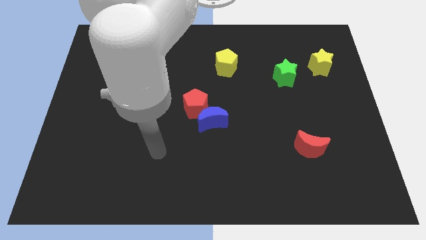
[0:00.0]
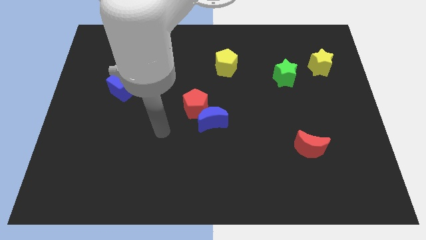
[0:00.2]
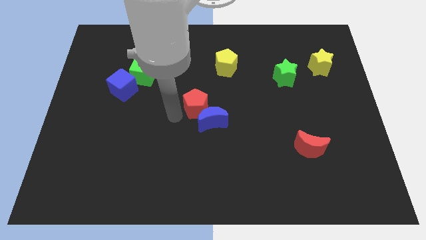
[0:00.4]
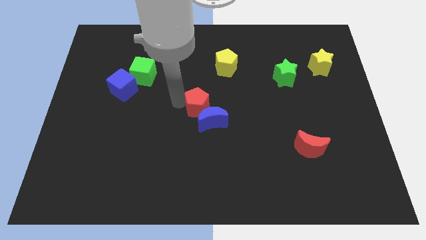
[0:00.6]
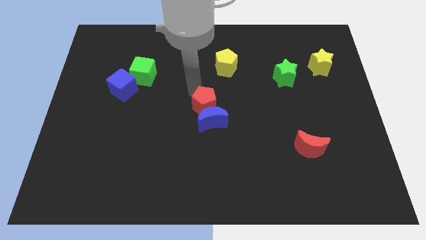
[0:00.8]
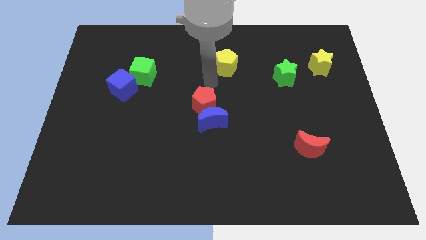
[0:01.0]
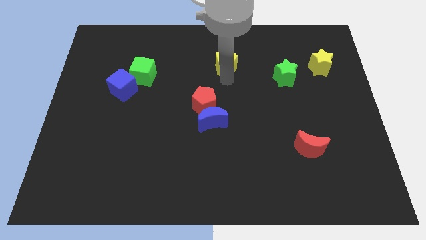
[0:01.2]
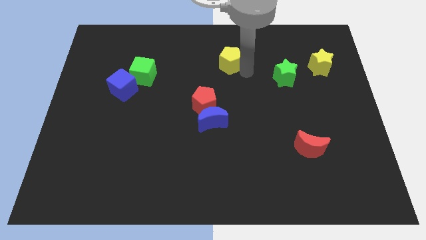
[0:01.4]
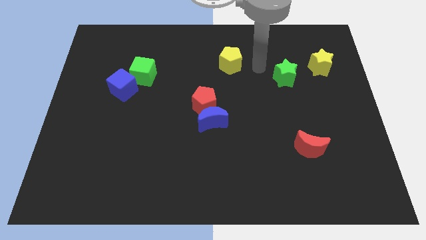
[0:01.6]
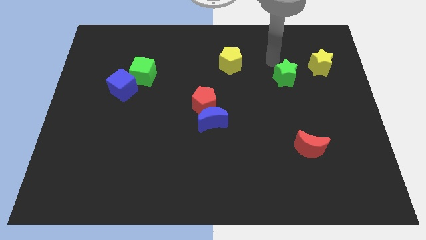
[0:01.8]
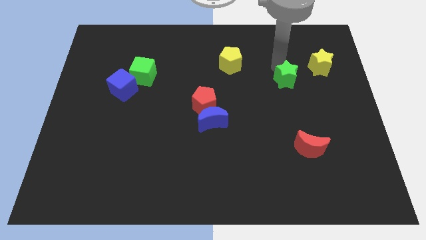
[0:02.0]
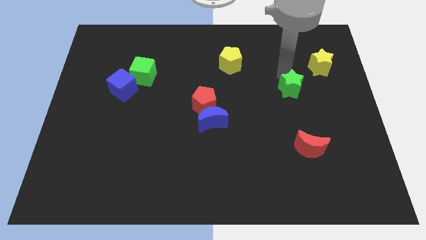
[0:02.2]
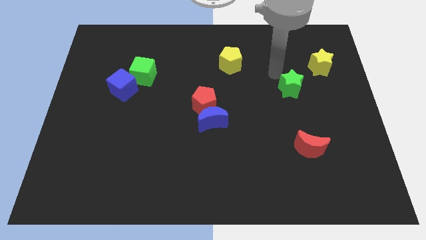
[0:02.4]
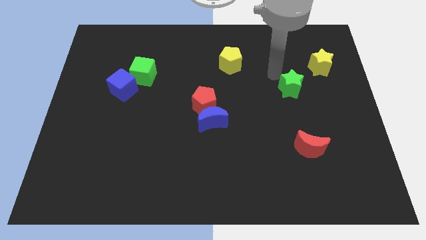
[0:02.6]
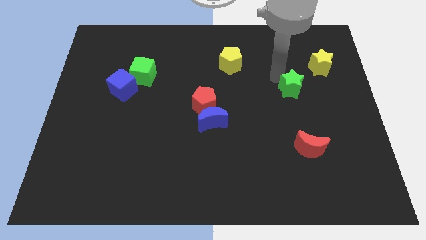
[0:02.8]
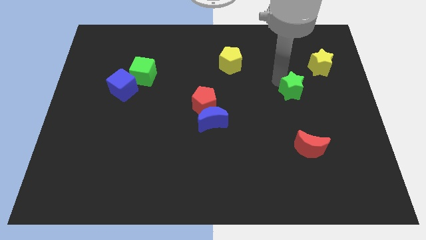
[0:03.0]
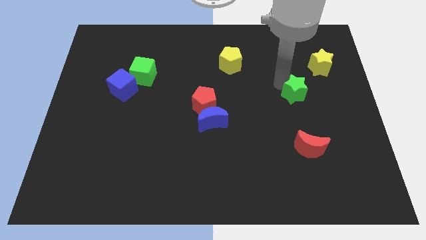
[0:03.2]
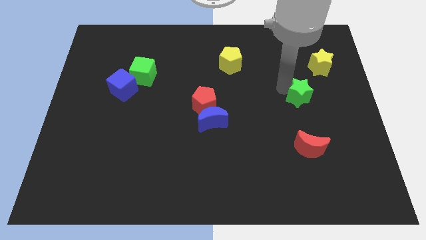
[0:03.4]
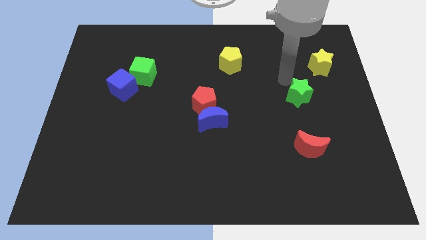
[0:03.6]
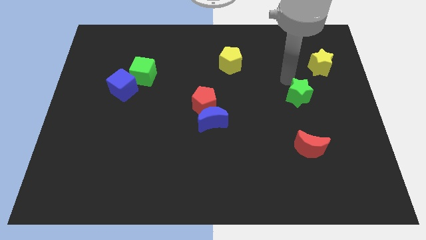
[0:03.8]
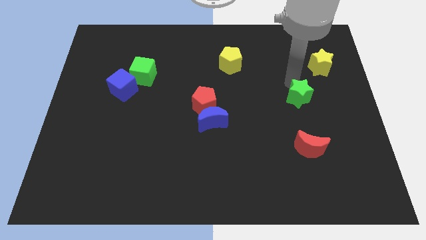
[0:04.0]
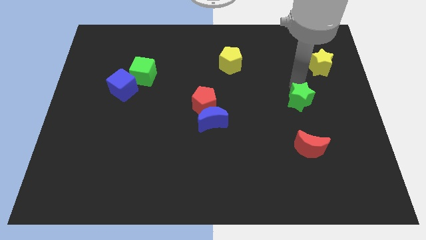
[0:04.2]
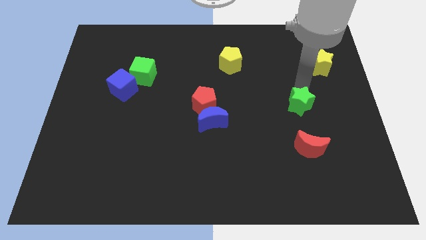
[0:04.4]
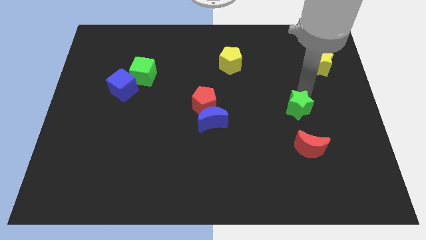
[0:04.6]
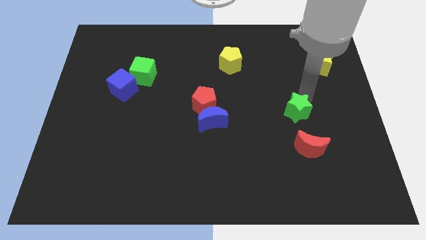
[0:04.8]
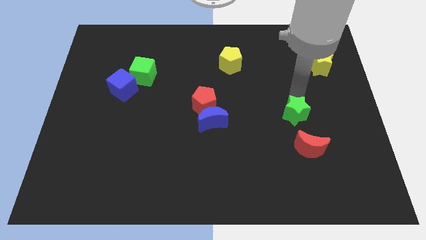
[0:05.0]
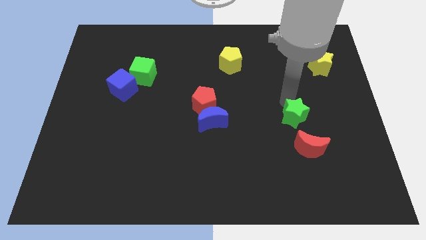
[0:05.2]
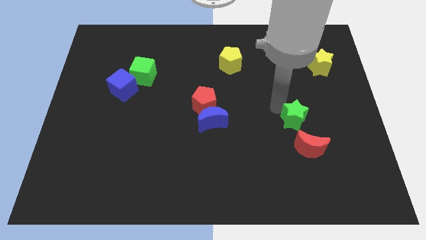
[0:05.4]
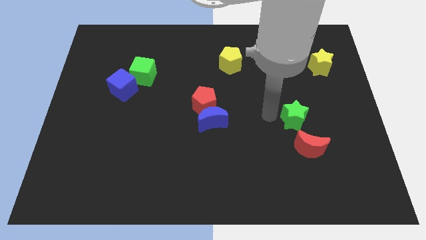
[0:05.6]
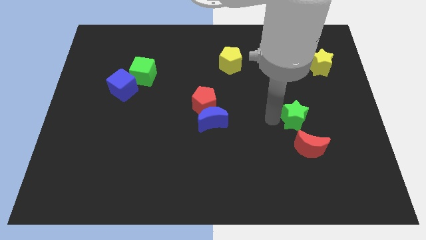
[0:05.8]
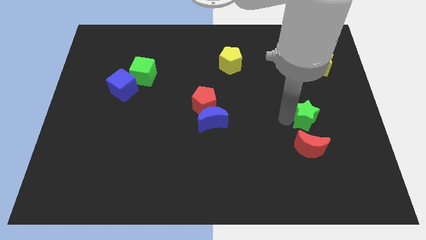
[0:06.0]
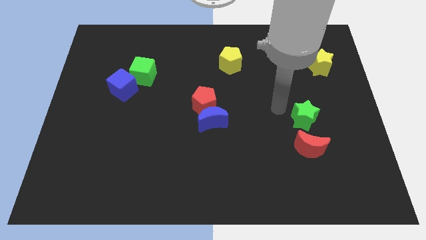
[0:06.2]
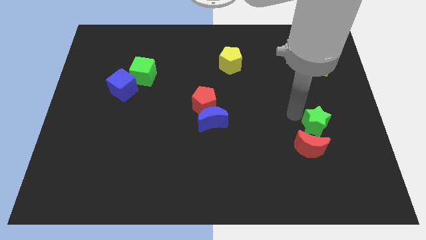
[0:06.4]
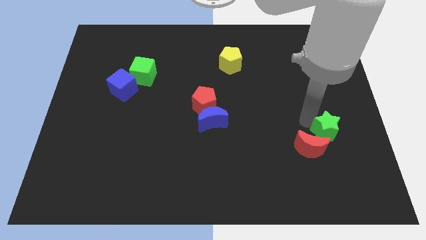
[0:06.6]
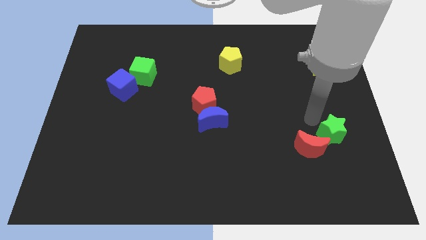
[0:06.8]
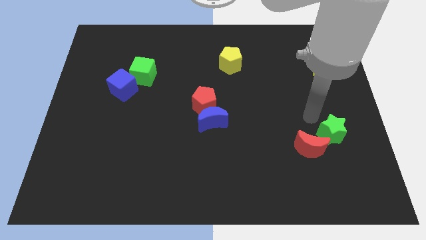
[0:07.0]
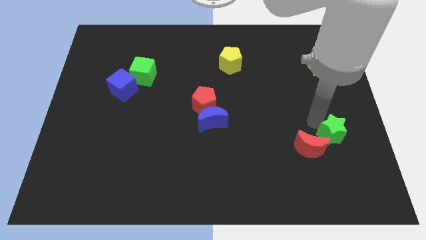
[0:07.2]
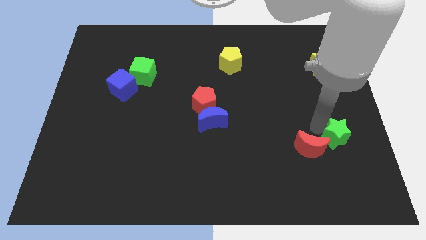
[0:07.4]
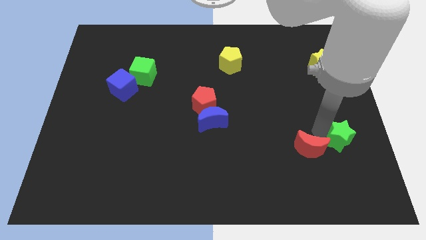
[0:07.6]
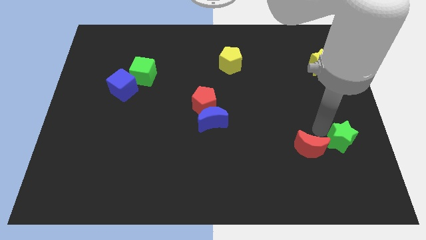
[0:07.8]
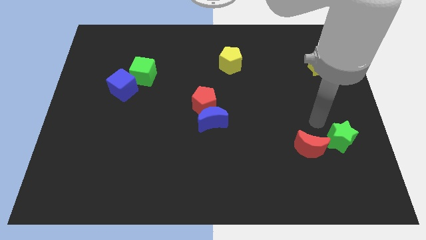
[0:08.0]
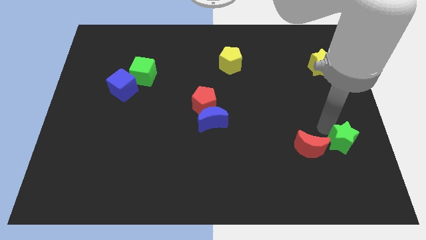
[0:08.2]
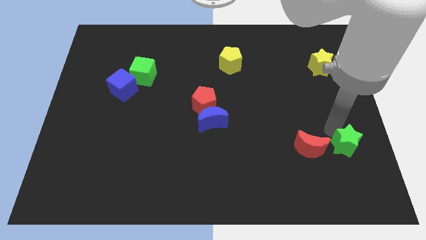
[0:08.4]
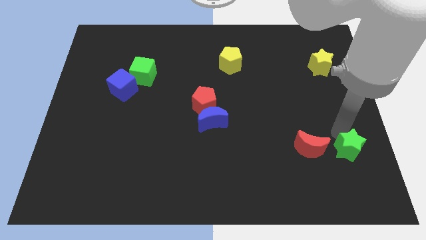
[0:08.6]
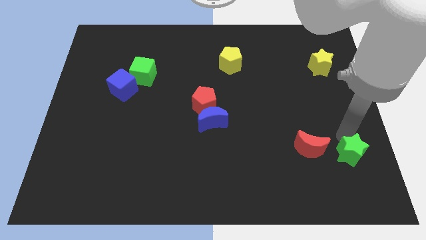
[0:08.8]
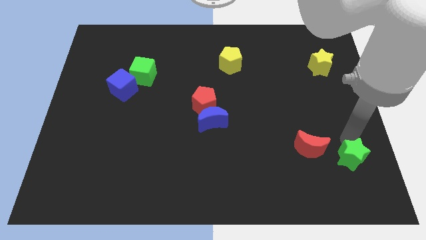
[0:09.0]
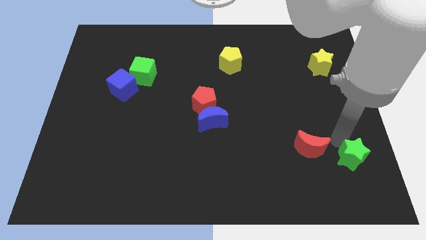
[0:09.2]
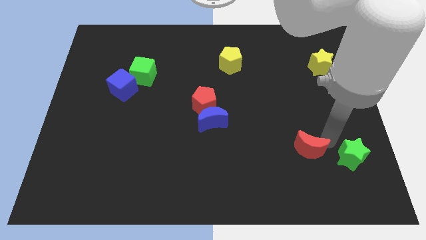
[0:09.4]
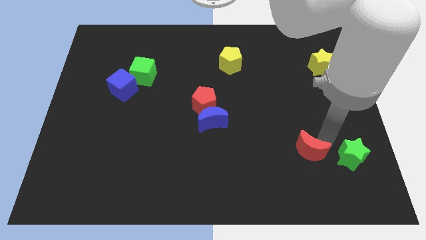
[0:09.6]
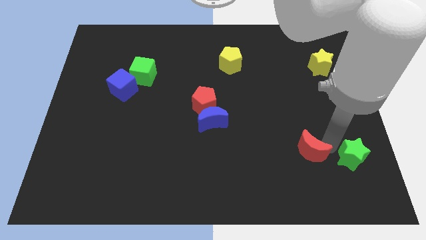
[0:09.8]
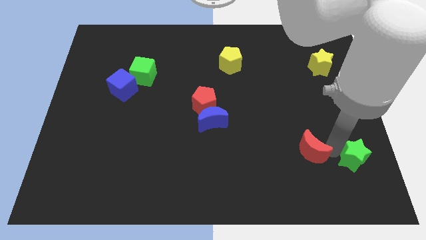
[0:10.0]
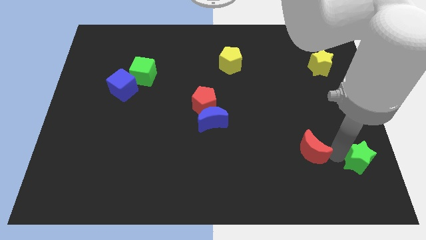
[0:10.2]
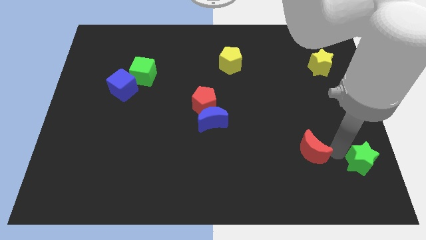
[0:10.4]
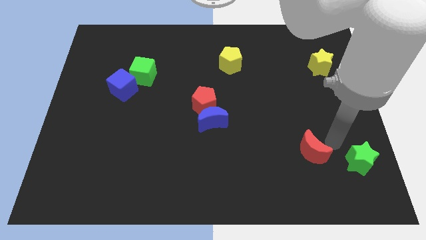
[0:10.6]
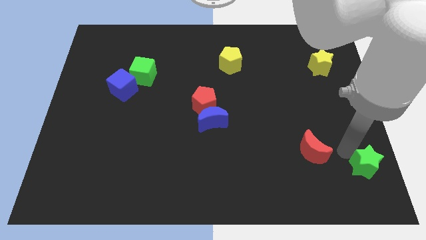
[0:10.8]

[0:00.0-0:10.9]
slide the green star to the lower right corner

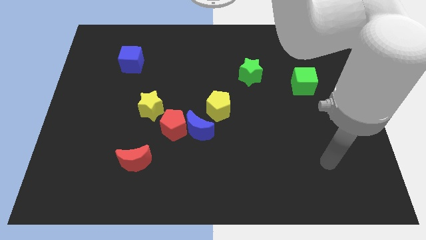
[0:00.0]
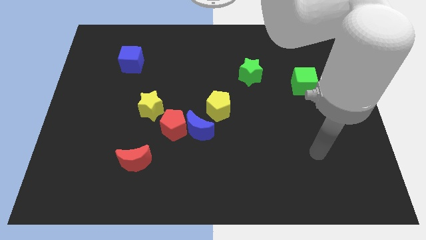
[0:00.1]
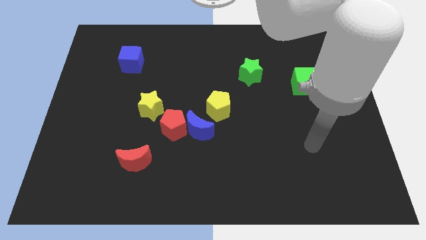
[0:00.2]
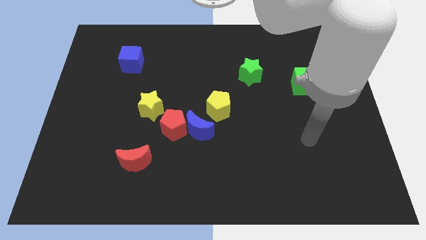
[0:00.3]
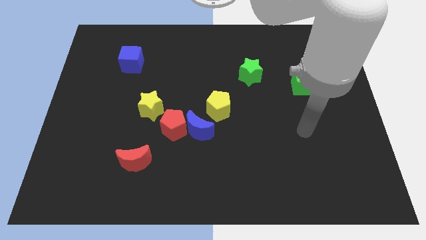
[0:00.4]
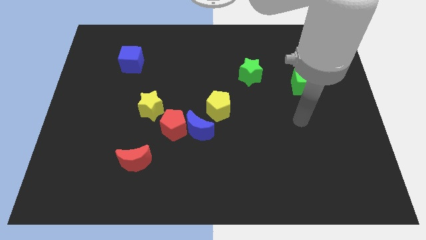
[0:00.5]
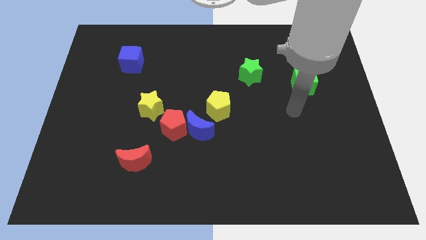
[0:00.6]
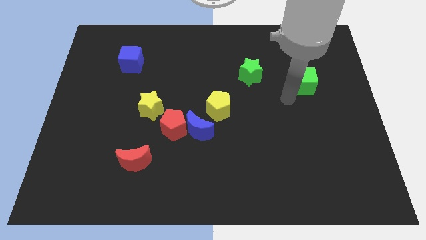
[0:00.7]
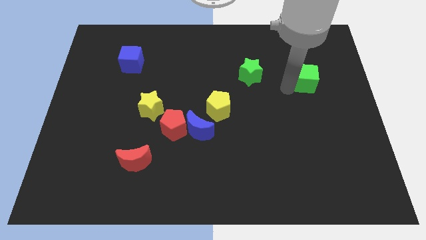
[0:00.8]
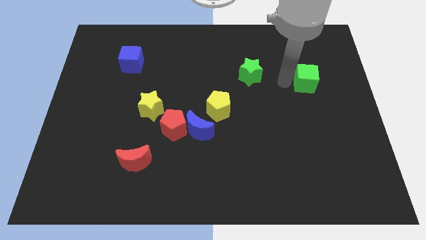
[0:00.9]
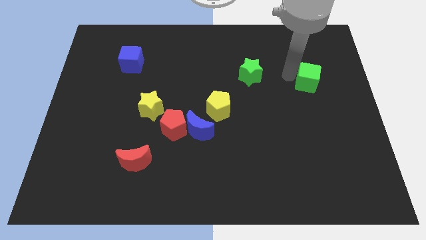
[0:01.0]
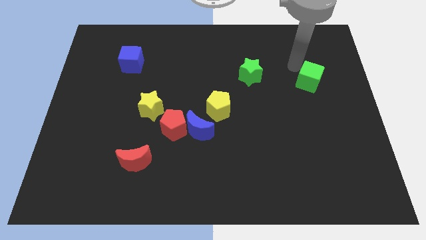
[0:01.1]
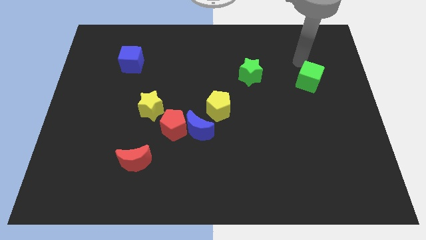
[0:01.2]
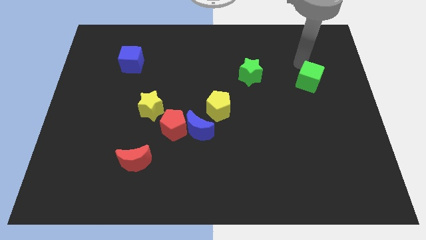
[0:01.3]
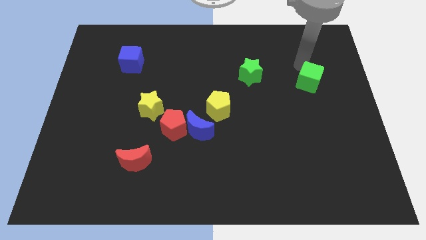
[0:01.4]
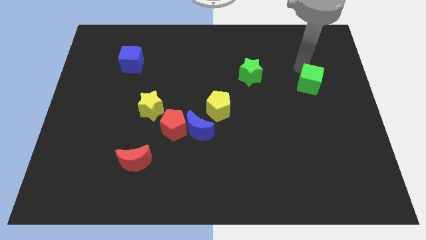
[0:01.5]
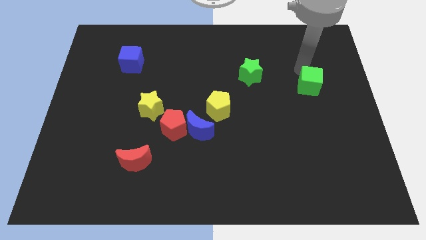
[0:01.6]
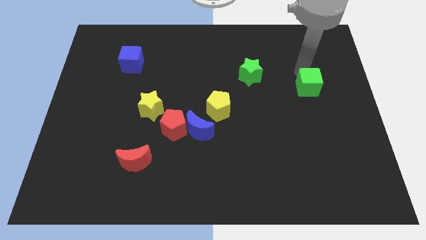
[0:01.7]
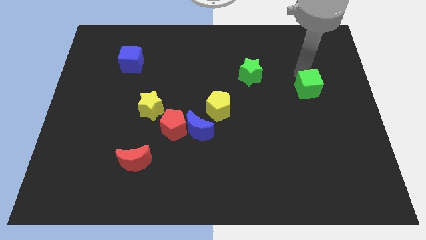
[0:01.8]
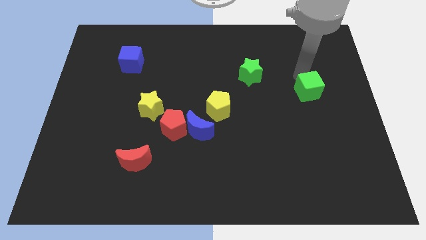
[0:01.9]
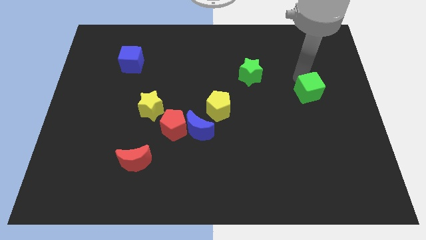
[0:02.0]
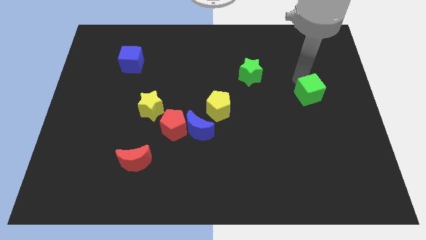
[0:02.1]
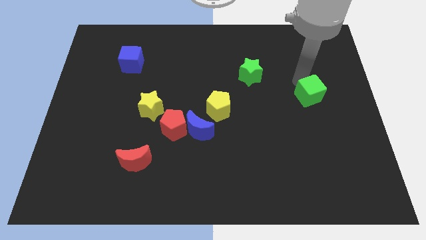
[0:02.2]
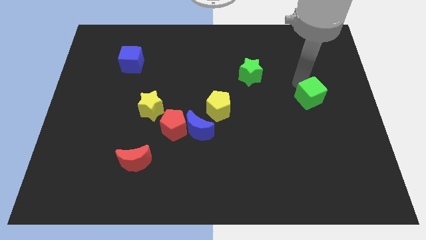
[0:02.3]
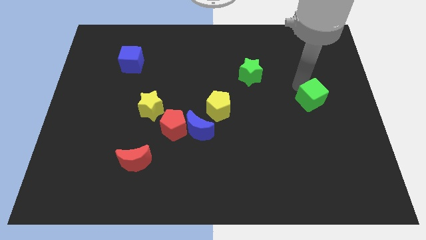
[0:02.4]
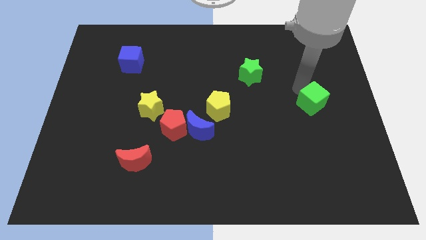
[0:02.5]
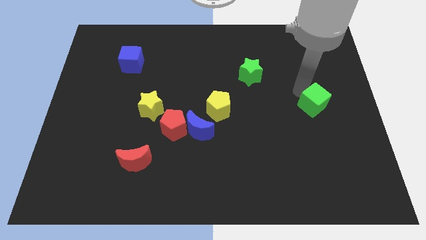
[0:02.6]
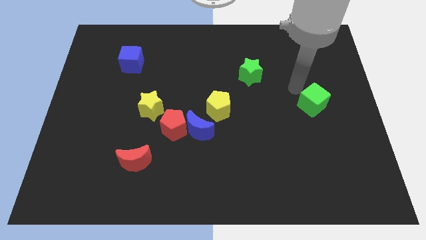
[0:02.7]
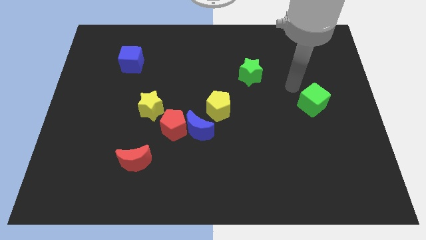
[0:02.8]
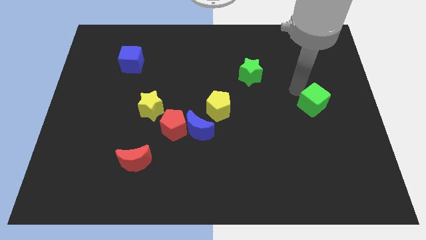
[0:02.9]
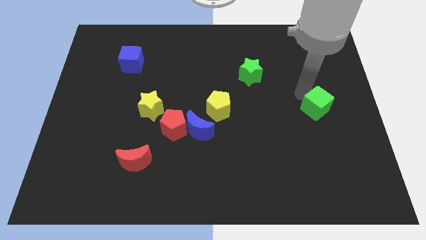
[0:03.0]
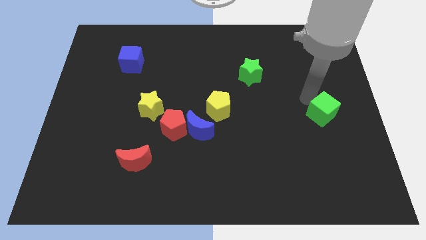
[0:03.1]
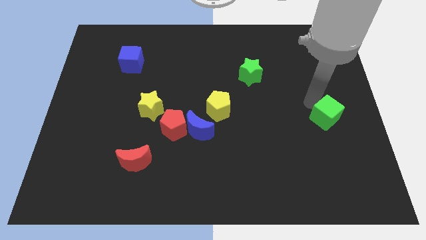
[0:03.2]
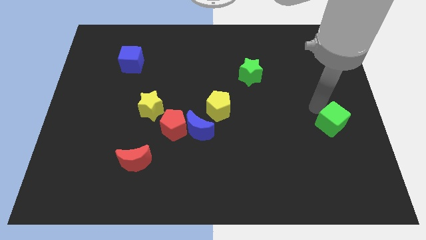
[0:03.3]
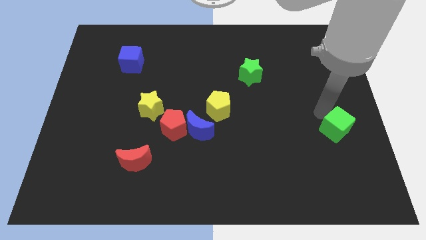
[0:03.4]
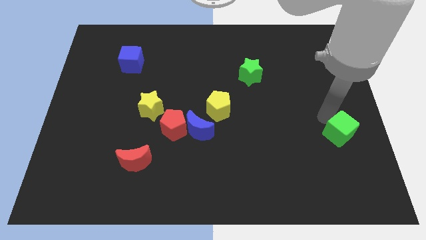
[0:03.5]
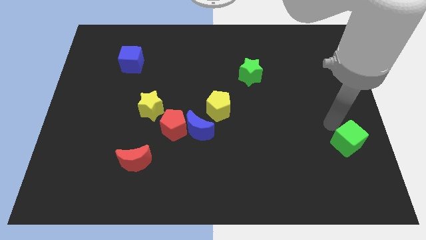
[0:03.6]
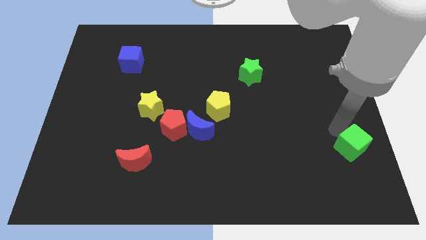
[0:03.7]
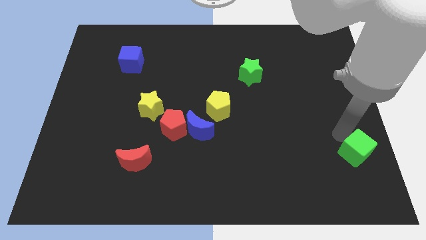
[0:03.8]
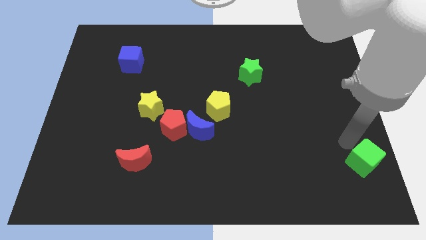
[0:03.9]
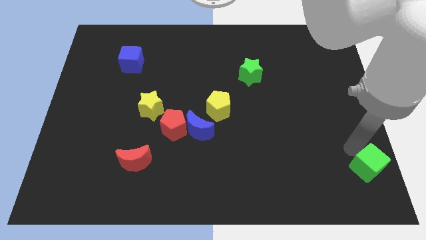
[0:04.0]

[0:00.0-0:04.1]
push the green cube to the bottom right corner
